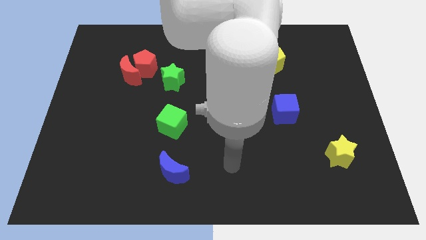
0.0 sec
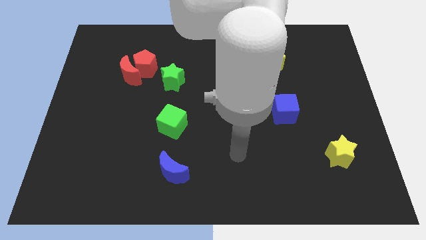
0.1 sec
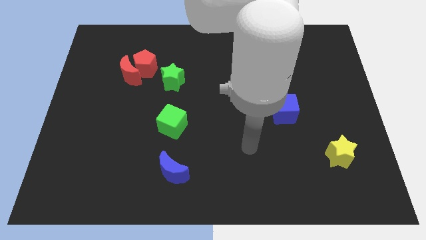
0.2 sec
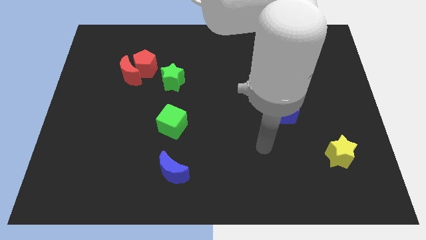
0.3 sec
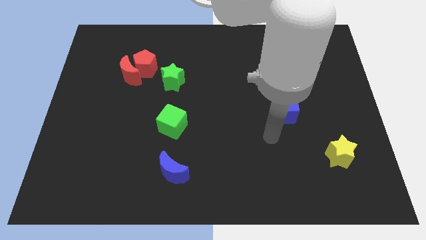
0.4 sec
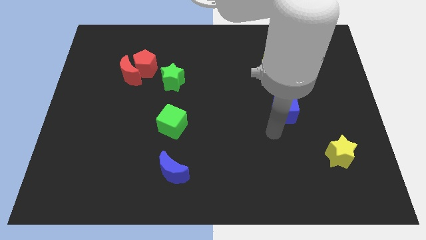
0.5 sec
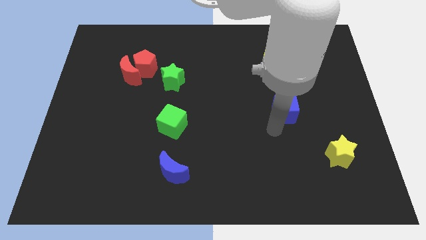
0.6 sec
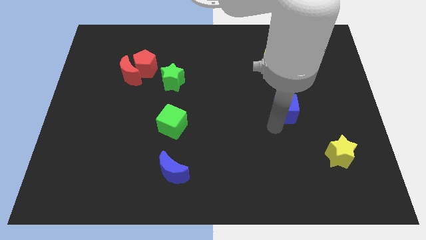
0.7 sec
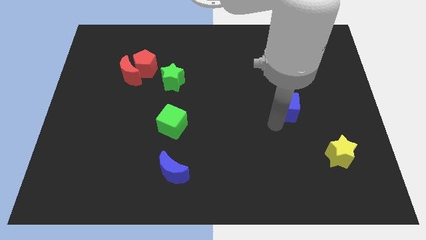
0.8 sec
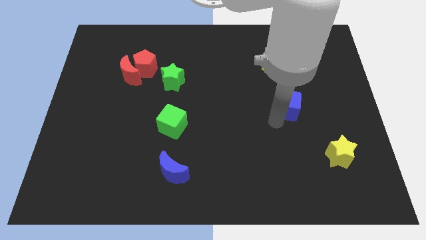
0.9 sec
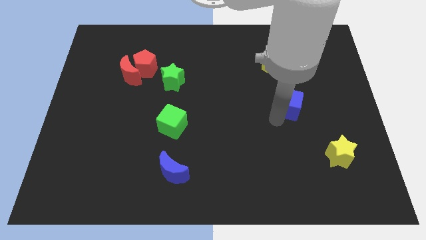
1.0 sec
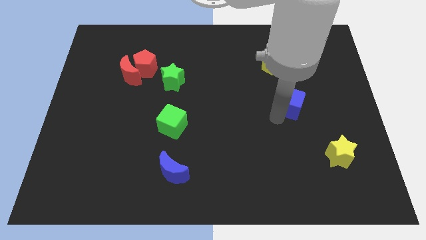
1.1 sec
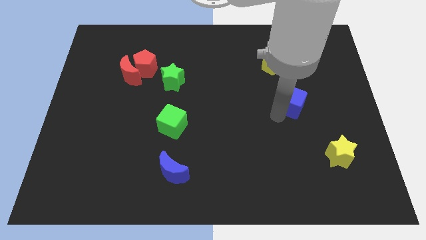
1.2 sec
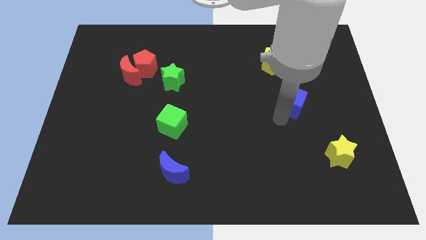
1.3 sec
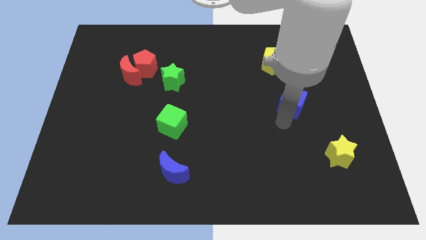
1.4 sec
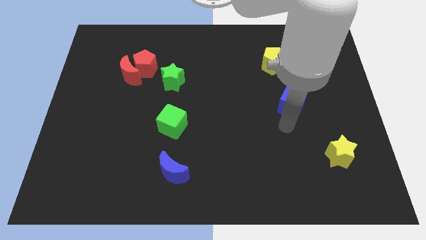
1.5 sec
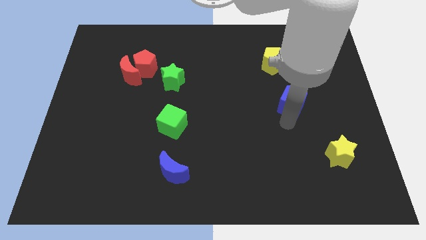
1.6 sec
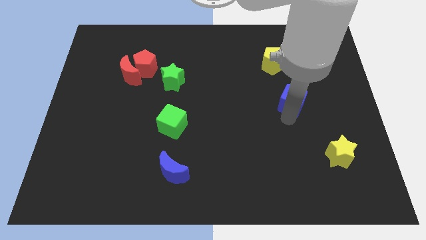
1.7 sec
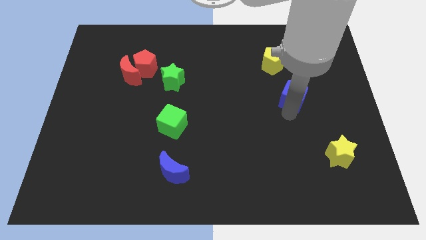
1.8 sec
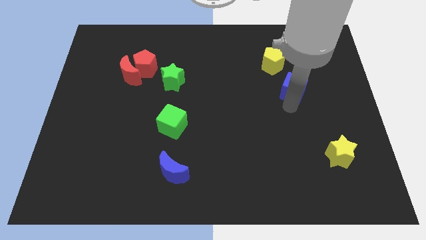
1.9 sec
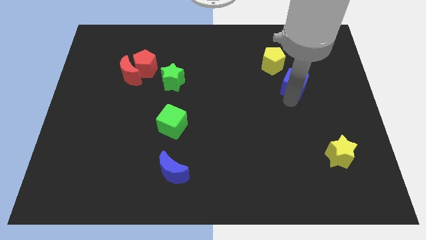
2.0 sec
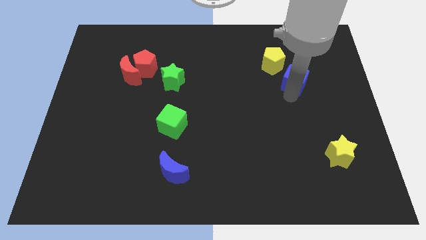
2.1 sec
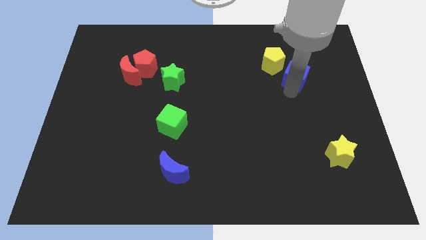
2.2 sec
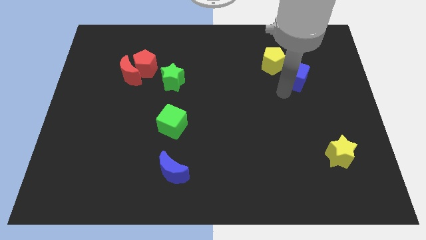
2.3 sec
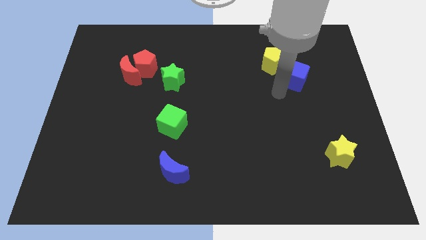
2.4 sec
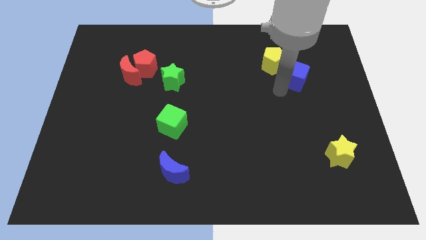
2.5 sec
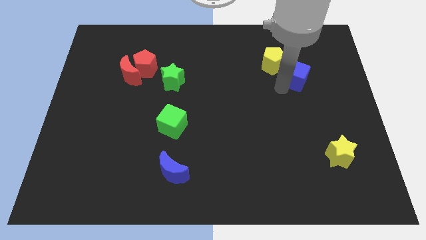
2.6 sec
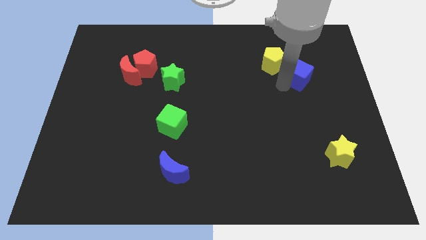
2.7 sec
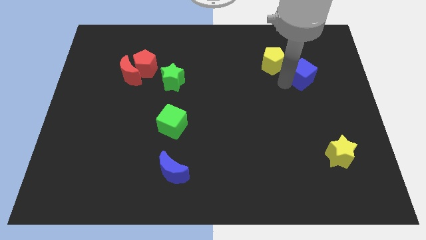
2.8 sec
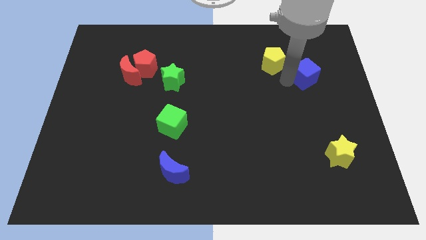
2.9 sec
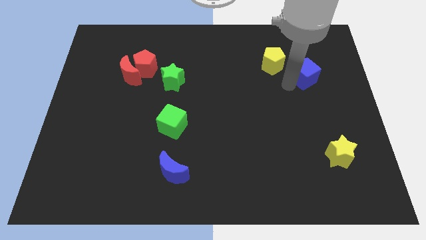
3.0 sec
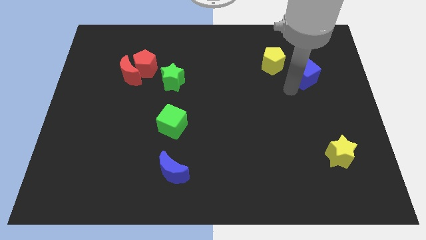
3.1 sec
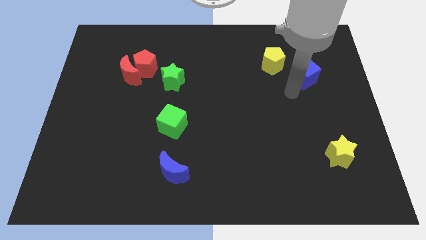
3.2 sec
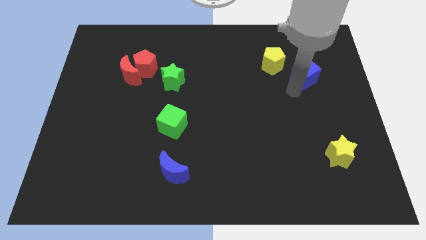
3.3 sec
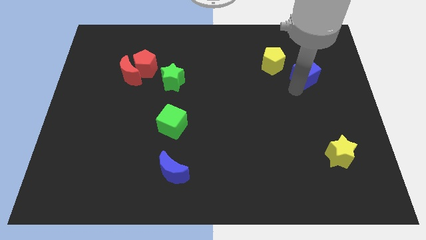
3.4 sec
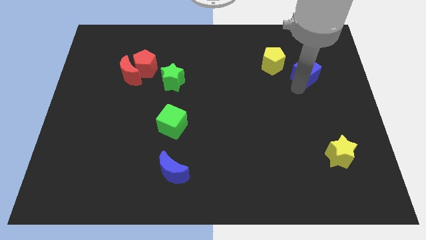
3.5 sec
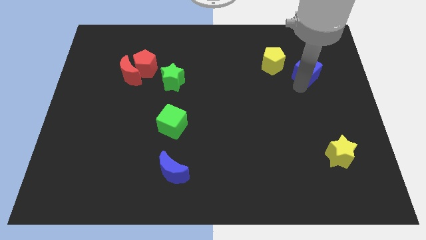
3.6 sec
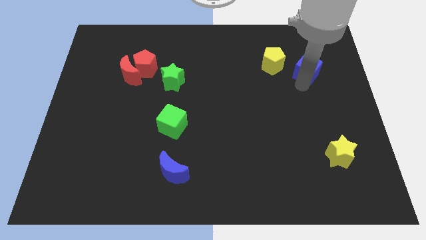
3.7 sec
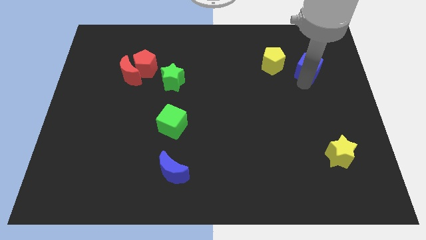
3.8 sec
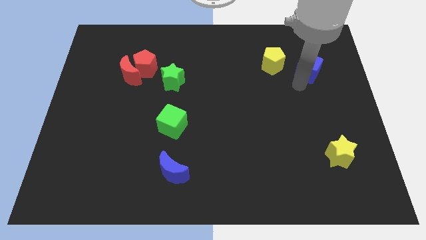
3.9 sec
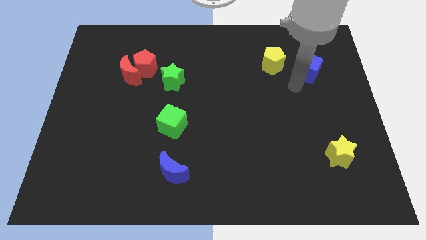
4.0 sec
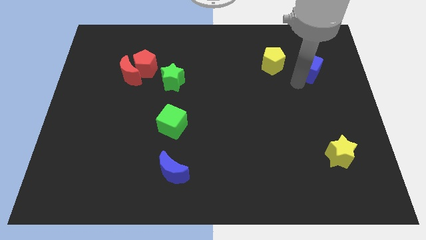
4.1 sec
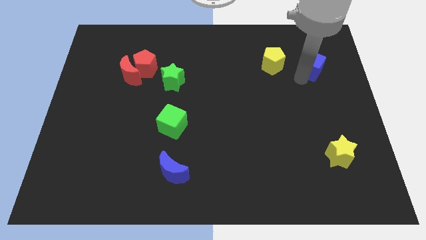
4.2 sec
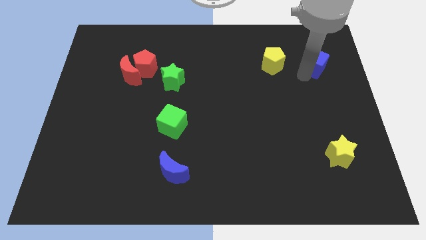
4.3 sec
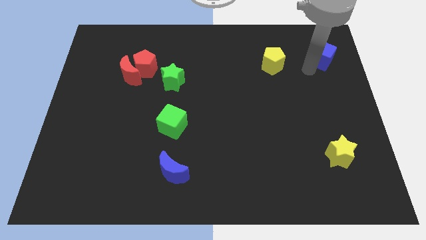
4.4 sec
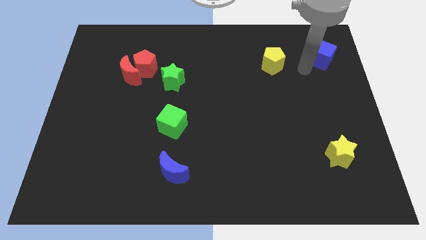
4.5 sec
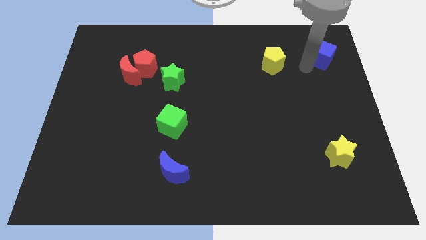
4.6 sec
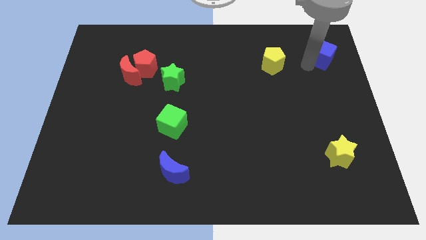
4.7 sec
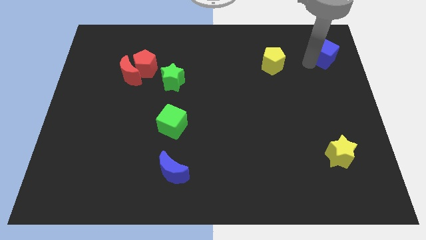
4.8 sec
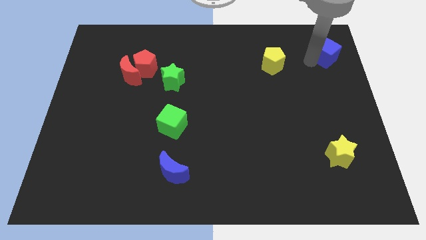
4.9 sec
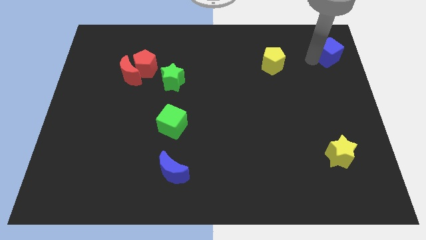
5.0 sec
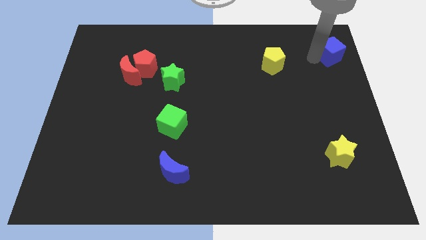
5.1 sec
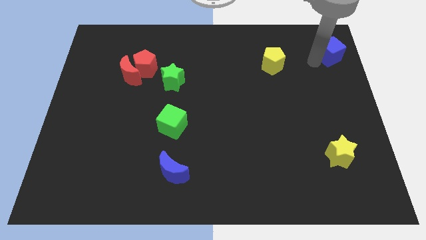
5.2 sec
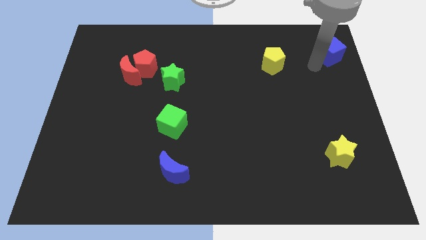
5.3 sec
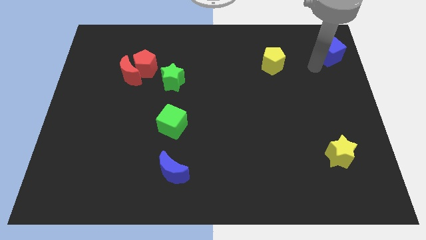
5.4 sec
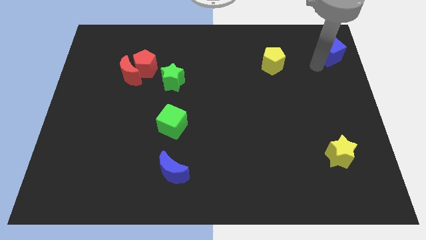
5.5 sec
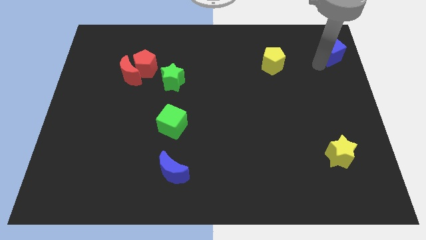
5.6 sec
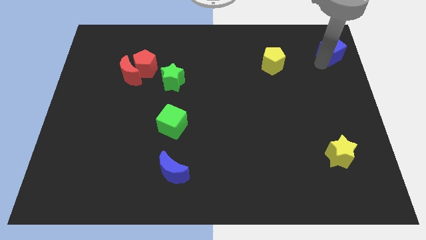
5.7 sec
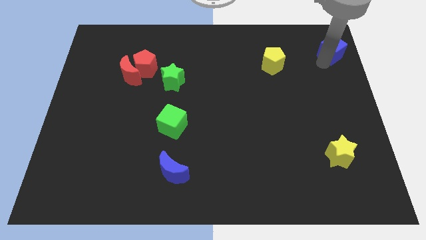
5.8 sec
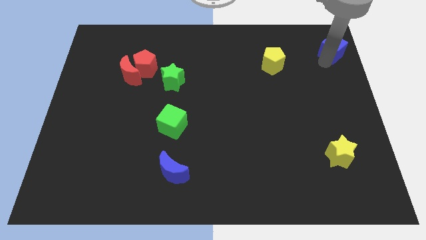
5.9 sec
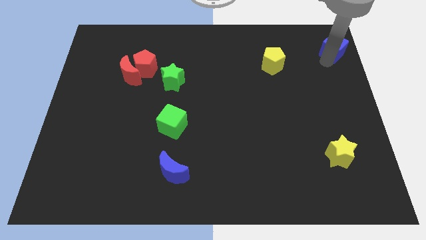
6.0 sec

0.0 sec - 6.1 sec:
put the blue cube to the top right of the board
